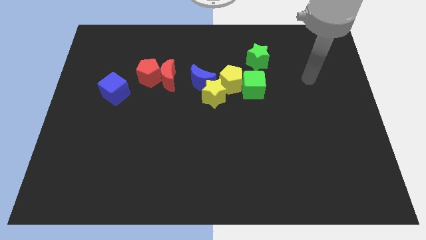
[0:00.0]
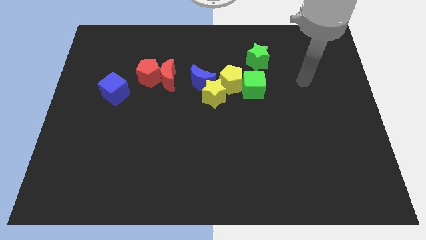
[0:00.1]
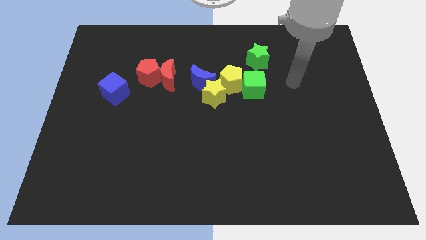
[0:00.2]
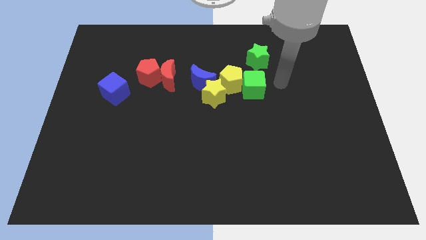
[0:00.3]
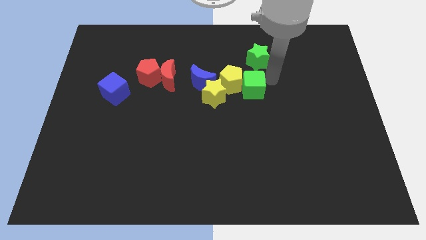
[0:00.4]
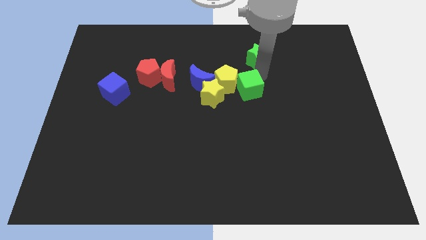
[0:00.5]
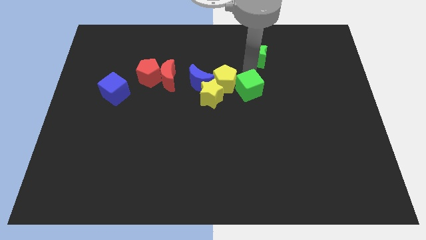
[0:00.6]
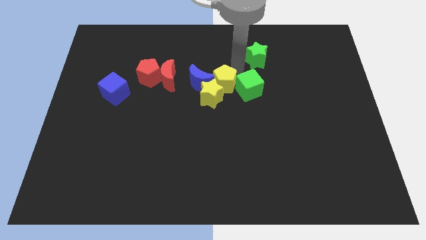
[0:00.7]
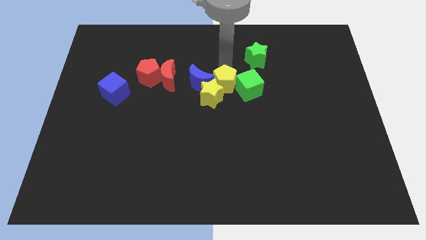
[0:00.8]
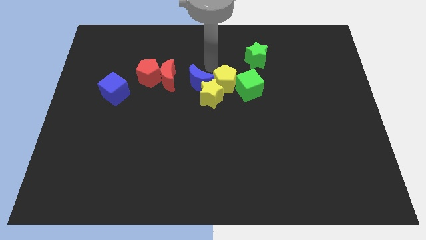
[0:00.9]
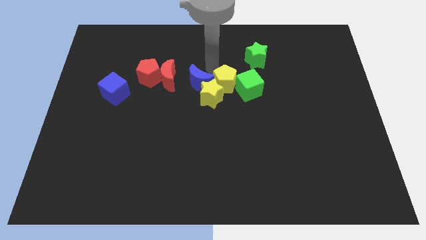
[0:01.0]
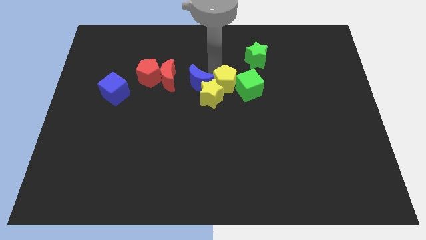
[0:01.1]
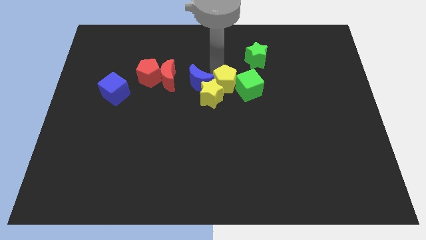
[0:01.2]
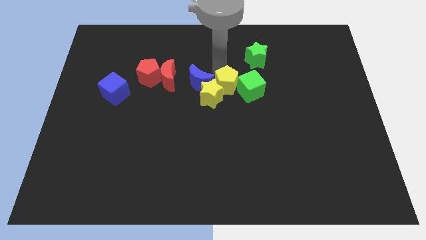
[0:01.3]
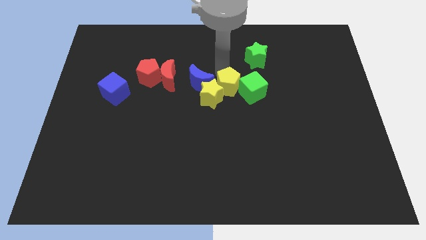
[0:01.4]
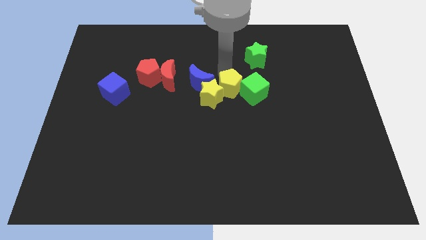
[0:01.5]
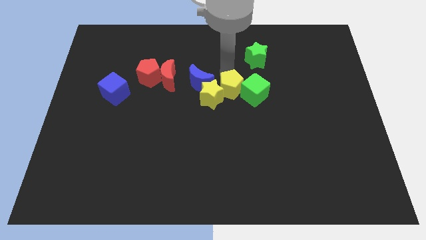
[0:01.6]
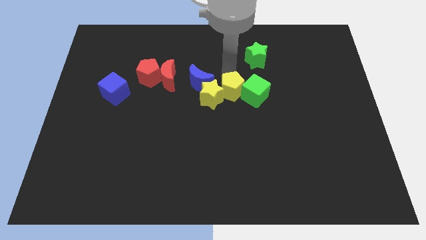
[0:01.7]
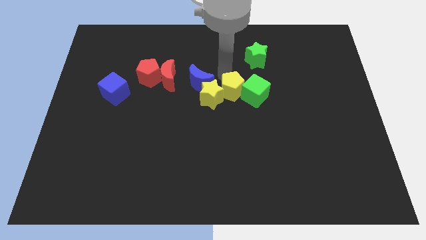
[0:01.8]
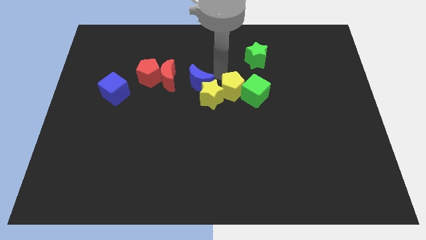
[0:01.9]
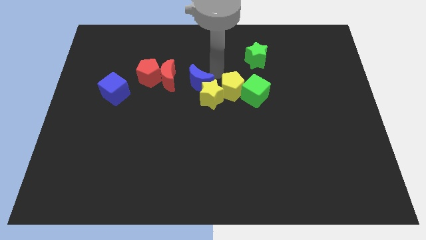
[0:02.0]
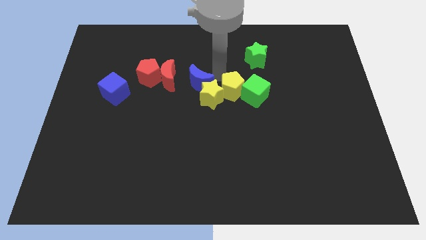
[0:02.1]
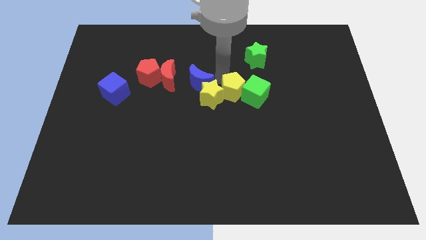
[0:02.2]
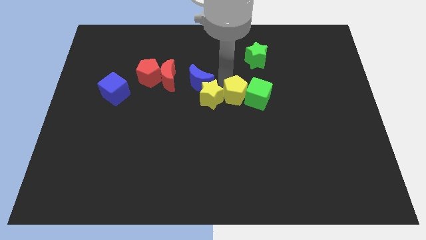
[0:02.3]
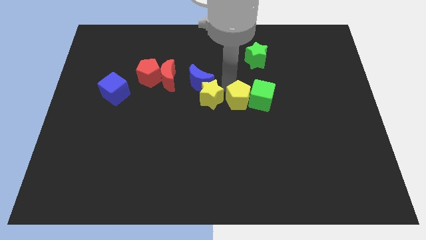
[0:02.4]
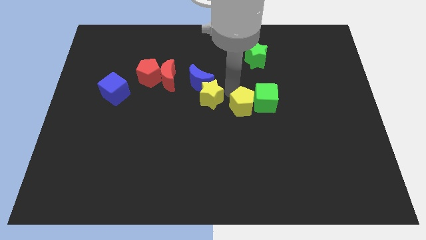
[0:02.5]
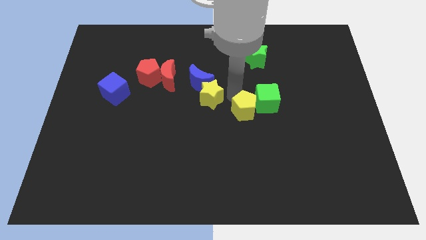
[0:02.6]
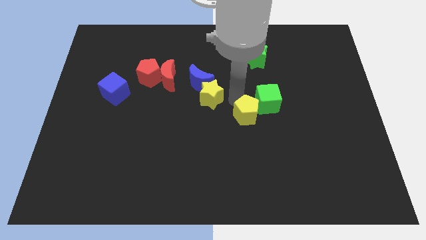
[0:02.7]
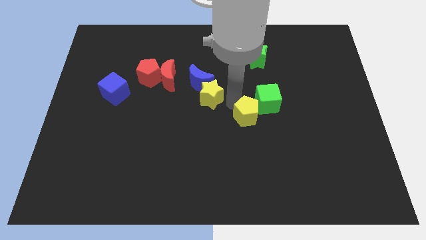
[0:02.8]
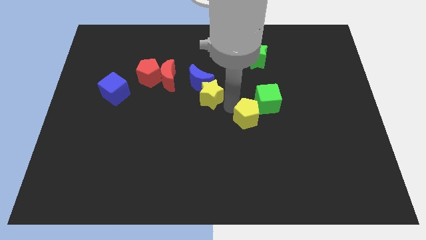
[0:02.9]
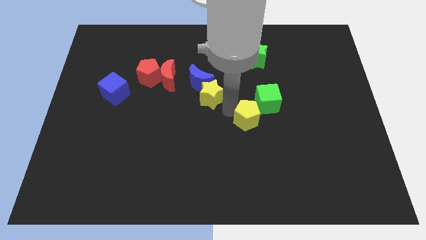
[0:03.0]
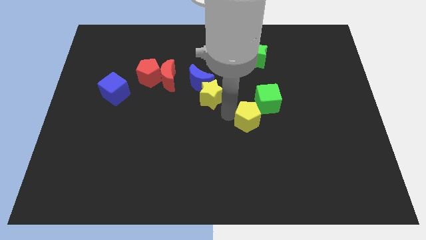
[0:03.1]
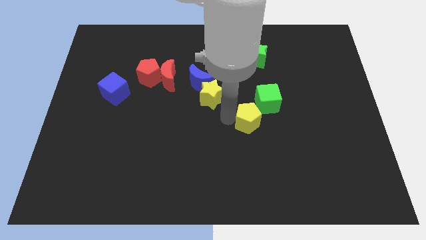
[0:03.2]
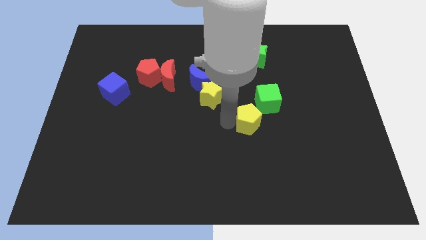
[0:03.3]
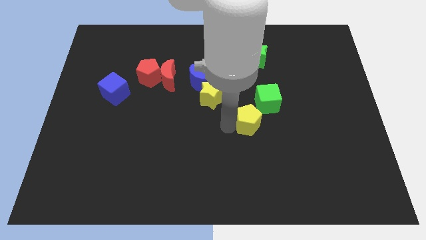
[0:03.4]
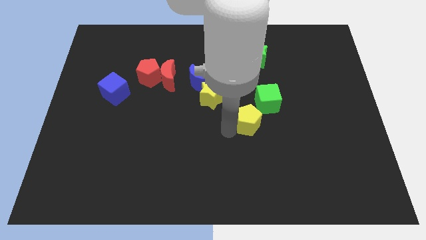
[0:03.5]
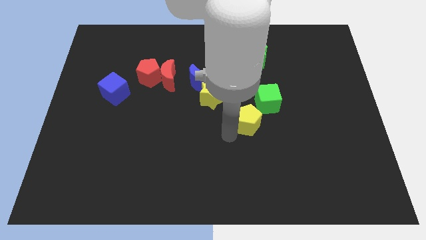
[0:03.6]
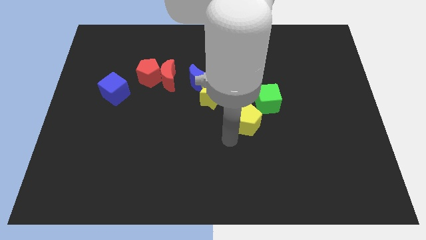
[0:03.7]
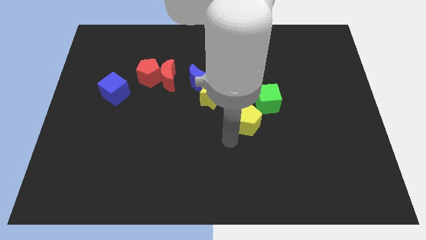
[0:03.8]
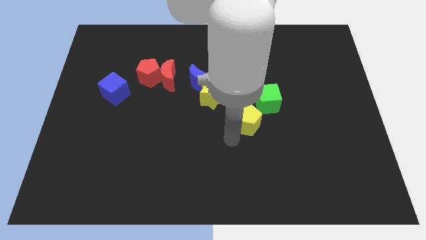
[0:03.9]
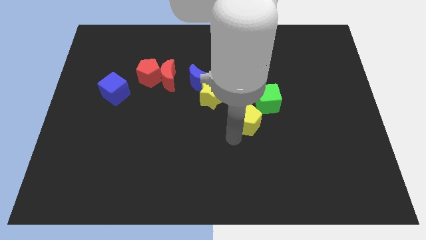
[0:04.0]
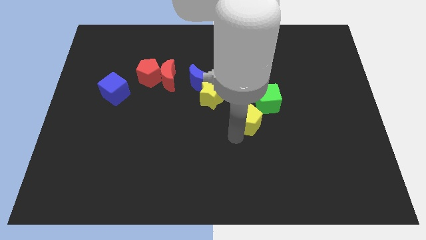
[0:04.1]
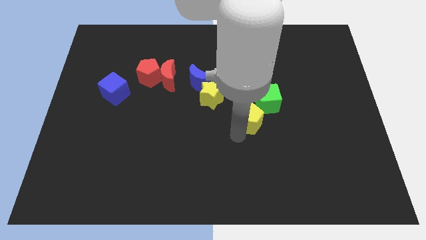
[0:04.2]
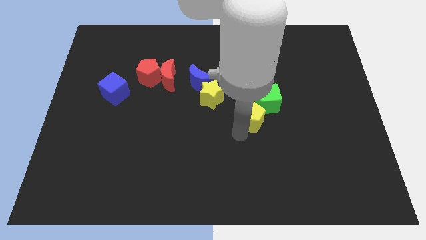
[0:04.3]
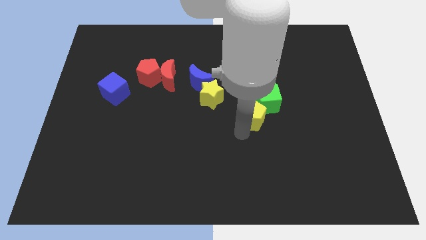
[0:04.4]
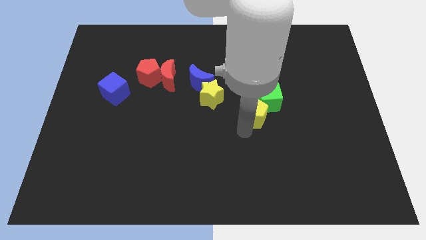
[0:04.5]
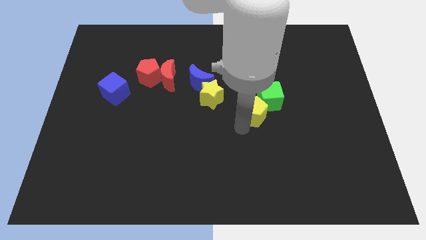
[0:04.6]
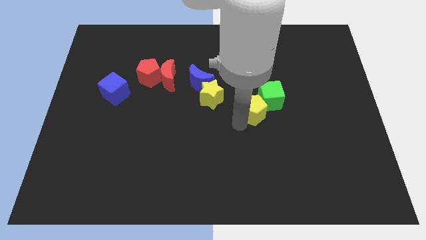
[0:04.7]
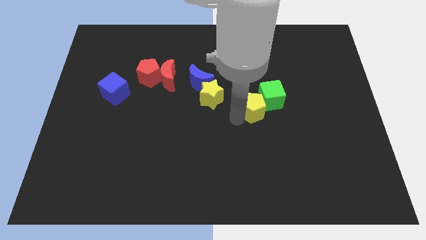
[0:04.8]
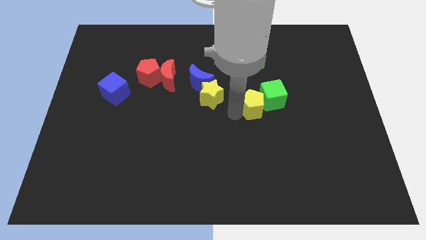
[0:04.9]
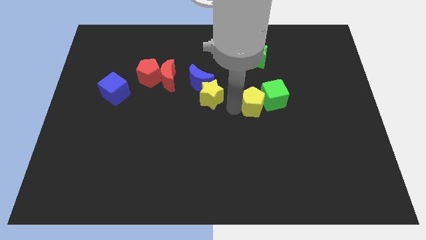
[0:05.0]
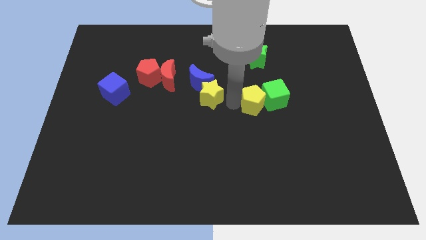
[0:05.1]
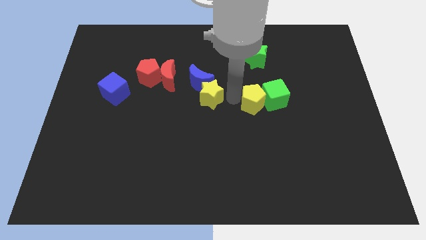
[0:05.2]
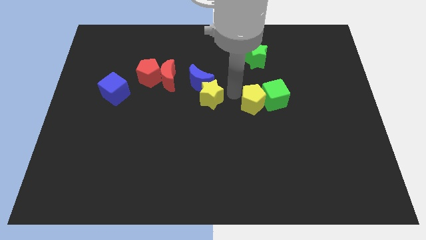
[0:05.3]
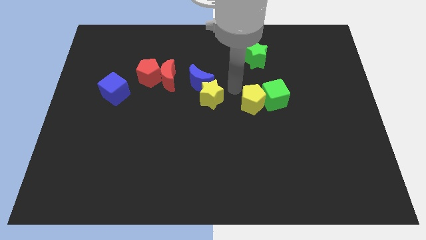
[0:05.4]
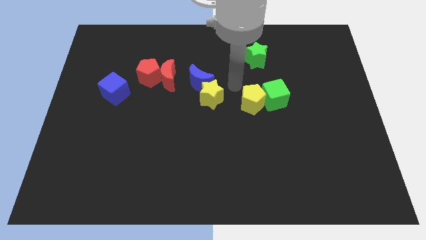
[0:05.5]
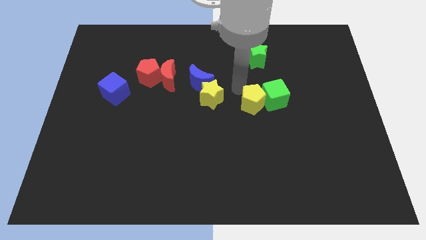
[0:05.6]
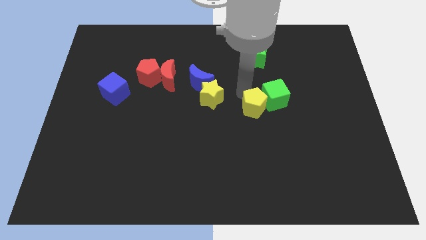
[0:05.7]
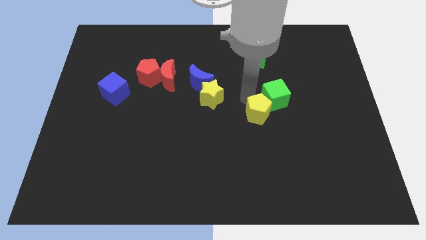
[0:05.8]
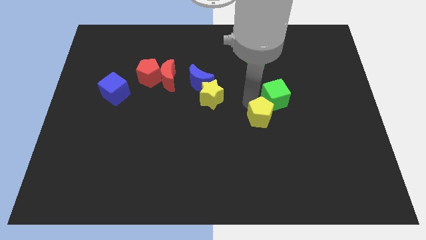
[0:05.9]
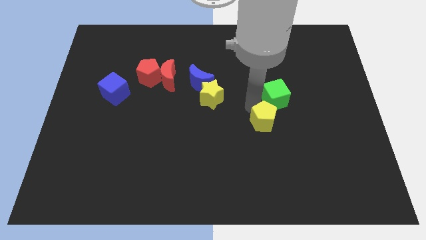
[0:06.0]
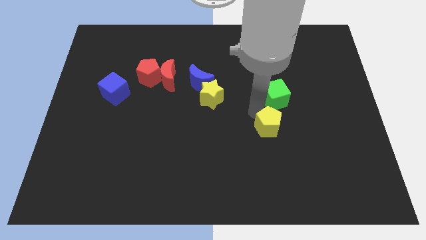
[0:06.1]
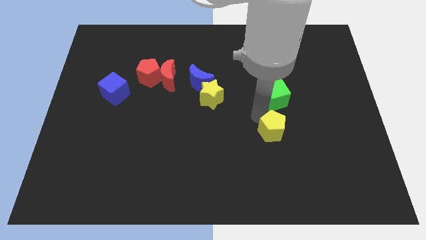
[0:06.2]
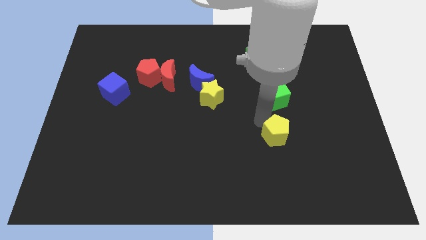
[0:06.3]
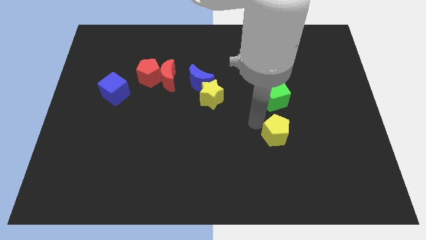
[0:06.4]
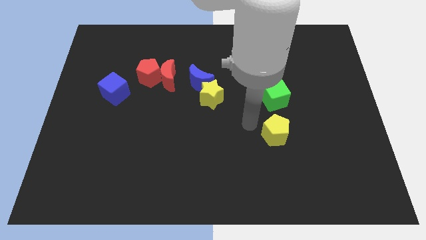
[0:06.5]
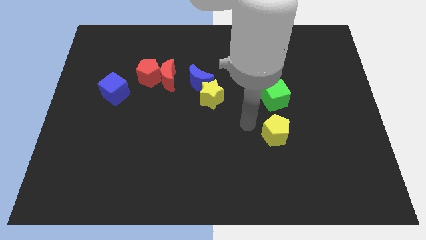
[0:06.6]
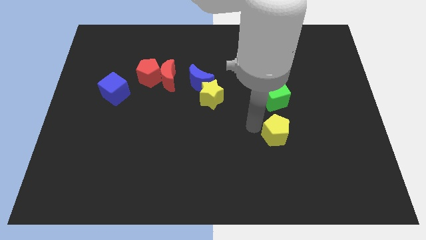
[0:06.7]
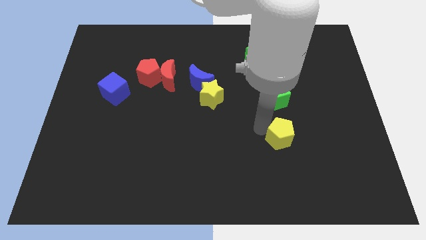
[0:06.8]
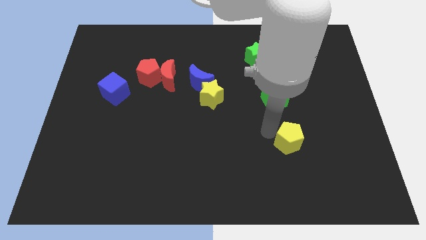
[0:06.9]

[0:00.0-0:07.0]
move the yellow pentagon downwards and right

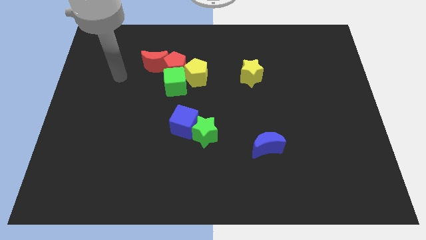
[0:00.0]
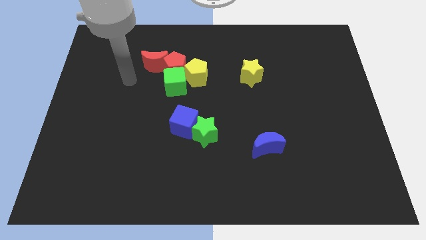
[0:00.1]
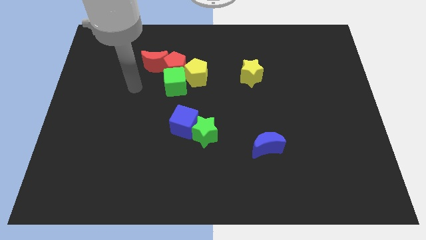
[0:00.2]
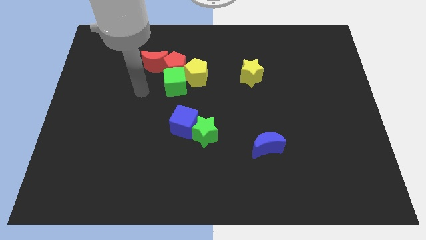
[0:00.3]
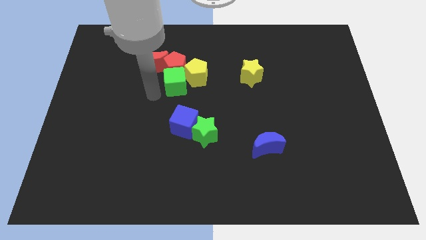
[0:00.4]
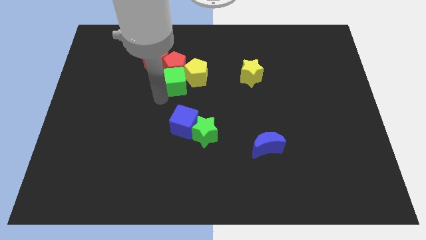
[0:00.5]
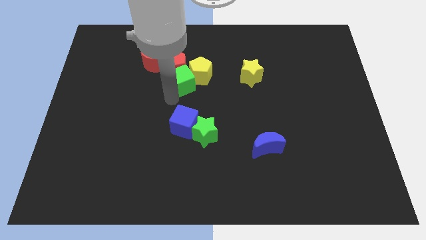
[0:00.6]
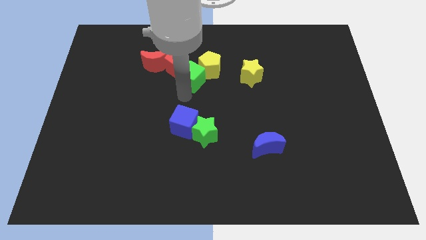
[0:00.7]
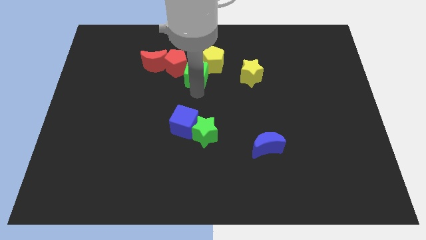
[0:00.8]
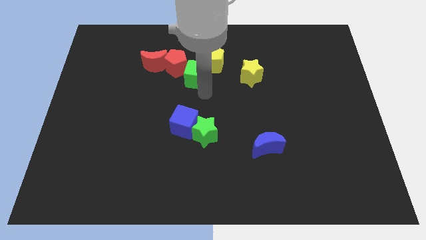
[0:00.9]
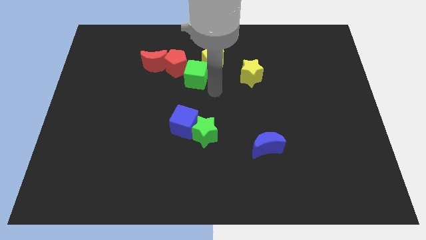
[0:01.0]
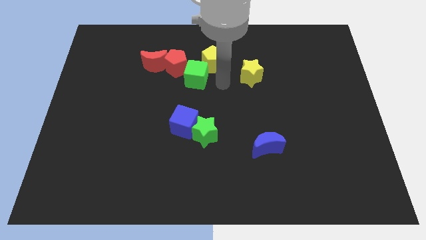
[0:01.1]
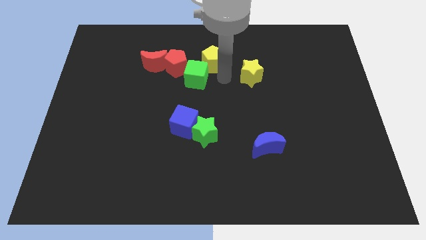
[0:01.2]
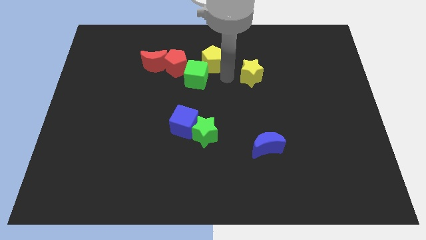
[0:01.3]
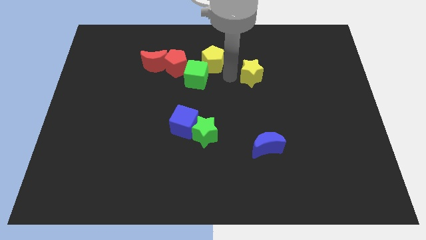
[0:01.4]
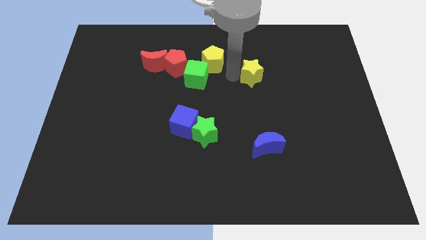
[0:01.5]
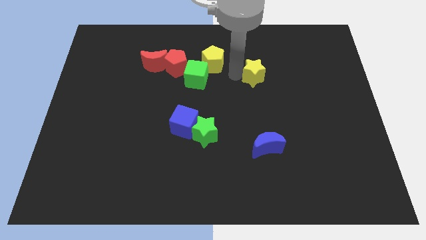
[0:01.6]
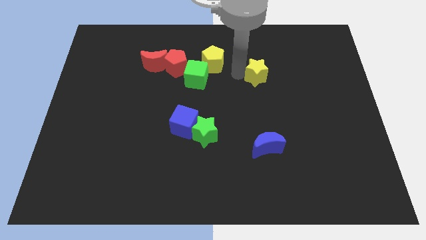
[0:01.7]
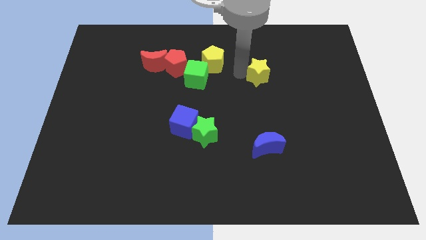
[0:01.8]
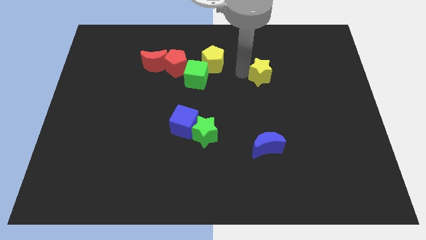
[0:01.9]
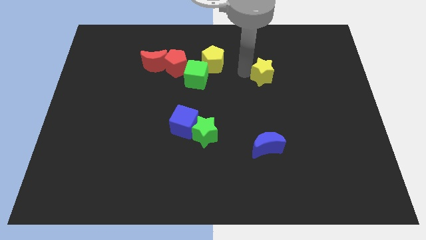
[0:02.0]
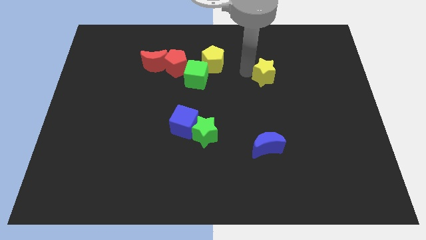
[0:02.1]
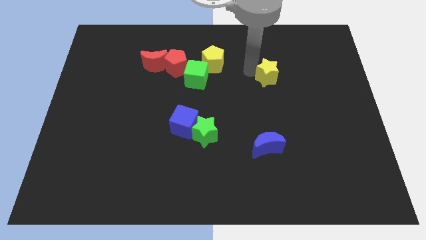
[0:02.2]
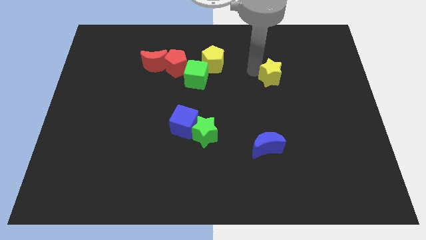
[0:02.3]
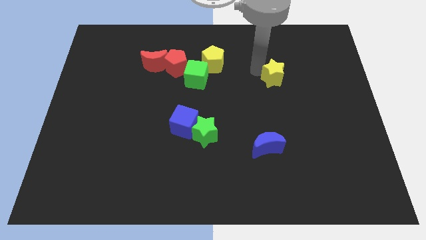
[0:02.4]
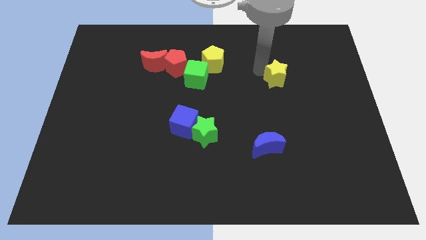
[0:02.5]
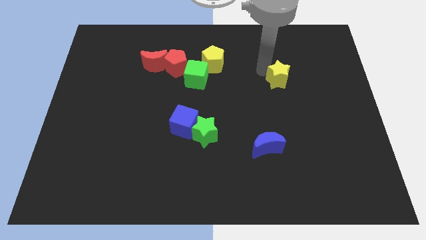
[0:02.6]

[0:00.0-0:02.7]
move the yellow star a bit to the right
